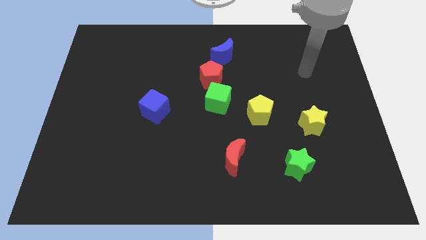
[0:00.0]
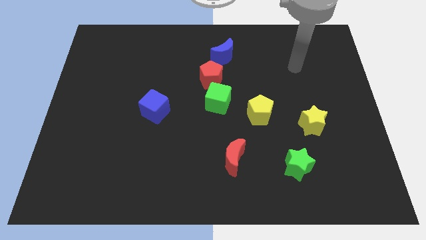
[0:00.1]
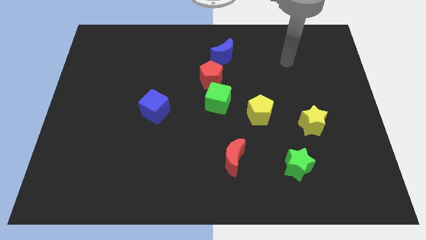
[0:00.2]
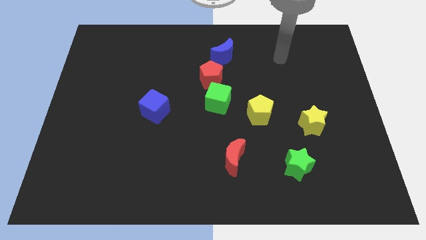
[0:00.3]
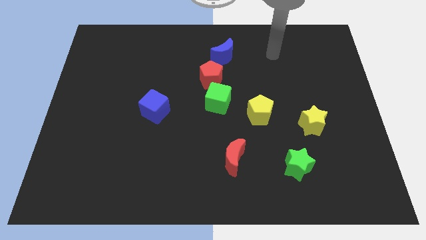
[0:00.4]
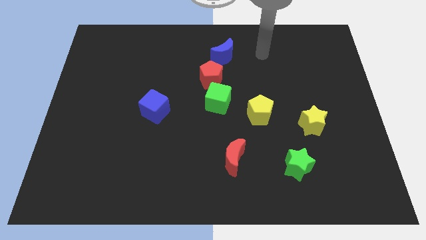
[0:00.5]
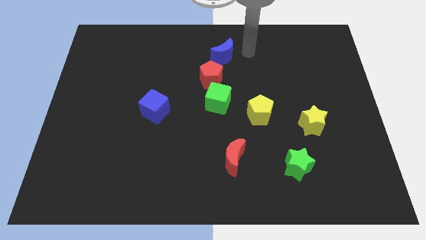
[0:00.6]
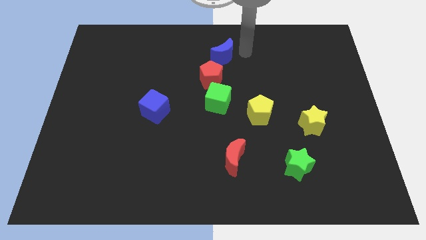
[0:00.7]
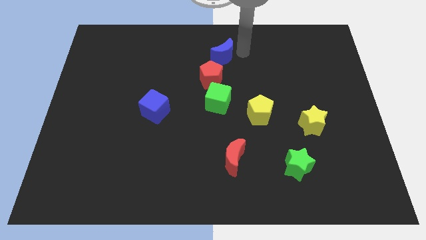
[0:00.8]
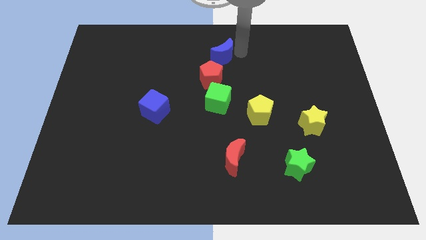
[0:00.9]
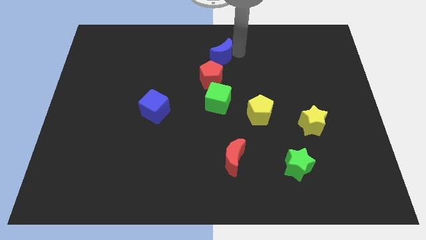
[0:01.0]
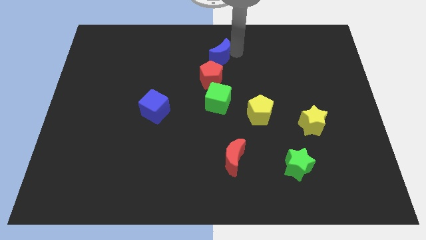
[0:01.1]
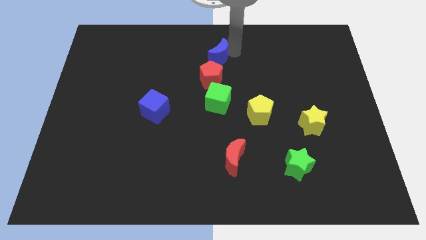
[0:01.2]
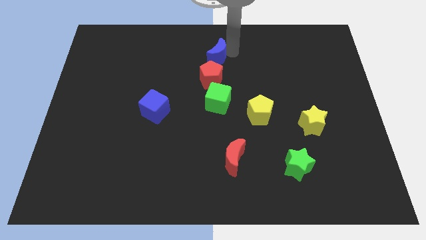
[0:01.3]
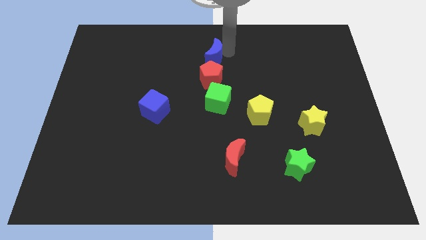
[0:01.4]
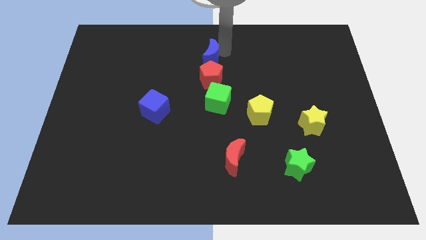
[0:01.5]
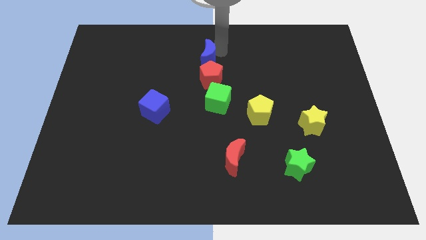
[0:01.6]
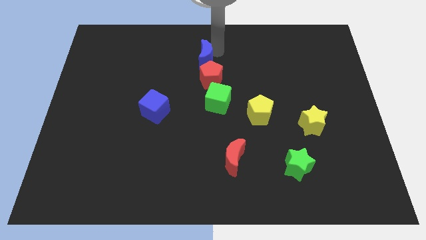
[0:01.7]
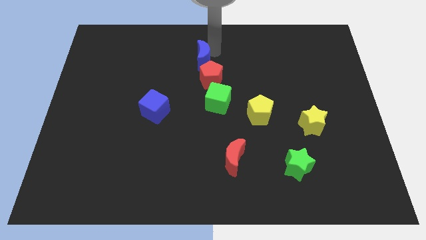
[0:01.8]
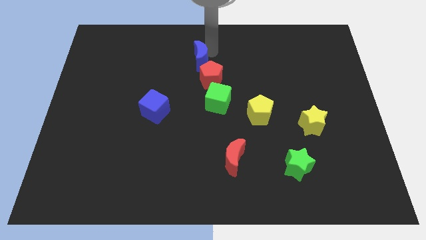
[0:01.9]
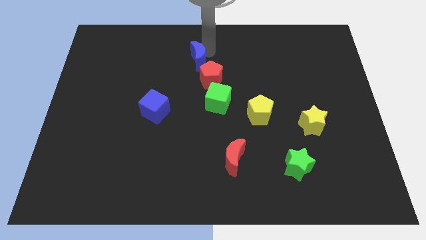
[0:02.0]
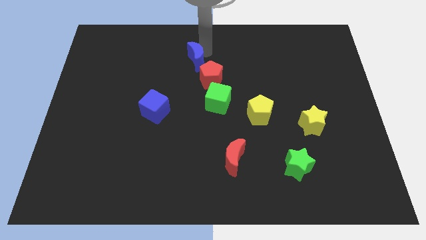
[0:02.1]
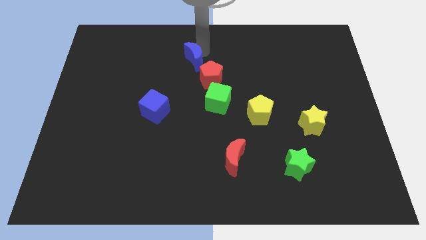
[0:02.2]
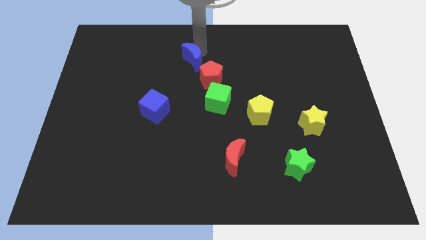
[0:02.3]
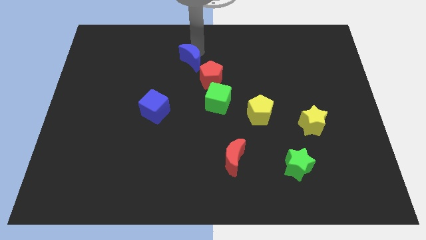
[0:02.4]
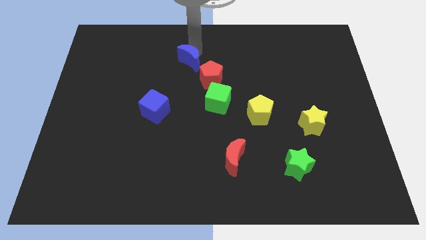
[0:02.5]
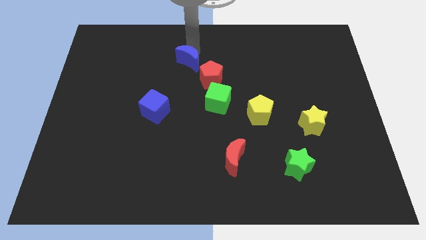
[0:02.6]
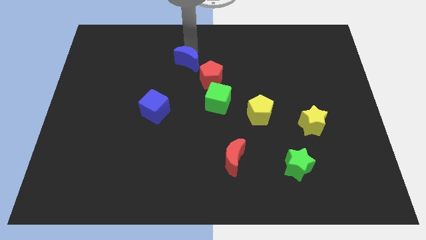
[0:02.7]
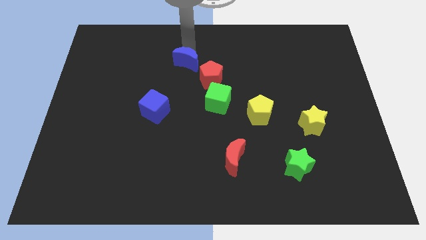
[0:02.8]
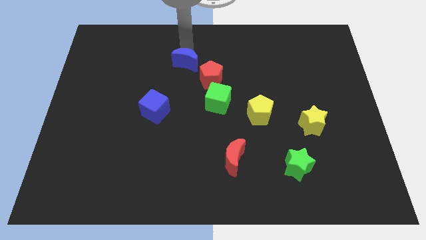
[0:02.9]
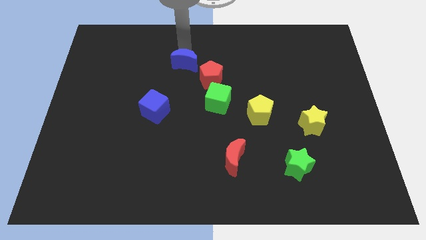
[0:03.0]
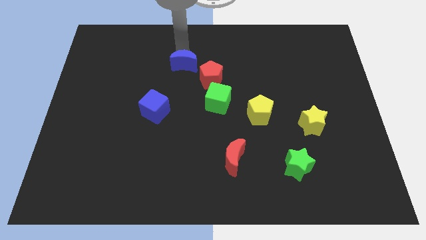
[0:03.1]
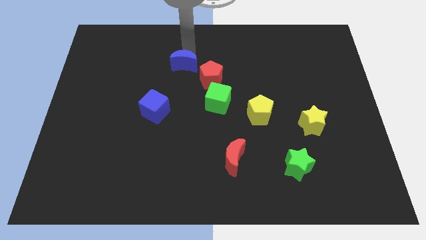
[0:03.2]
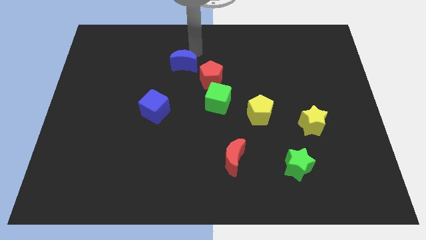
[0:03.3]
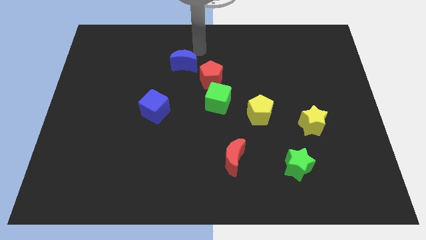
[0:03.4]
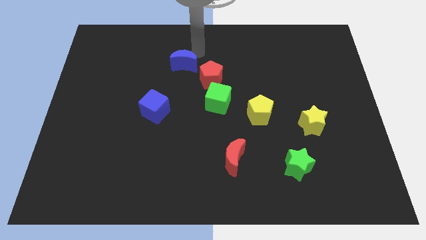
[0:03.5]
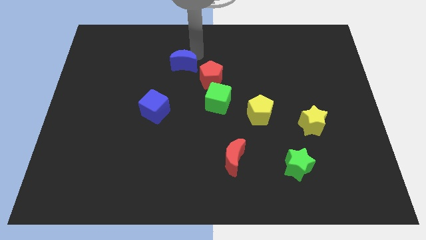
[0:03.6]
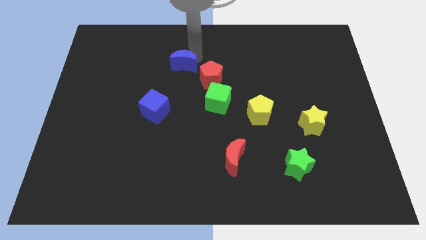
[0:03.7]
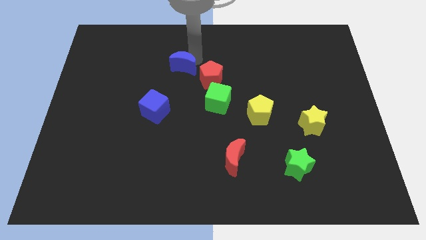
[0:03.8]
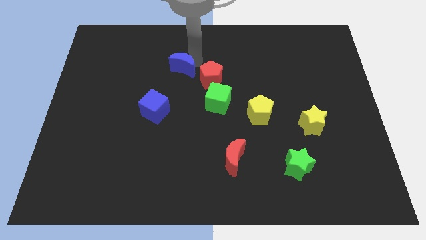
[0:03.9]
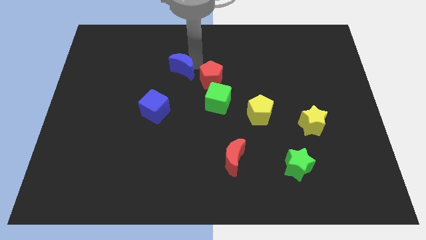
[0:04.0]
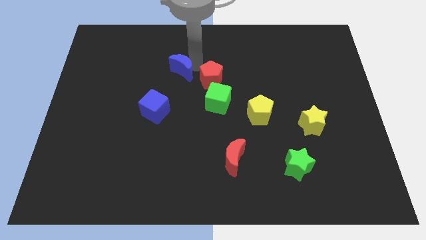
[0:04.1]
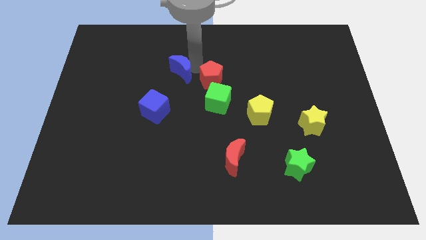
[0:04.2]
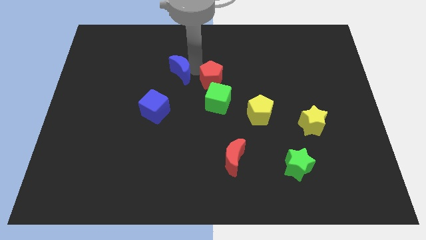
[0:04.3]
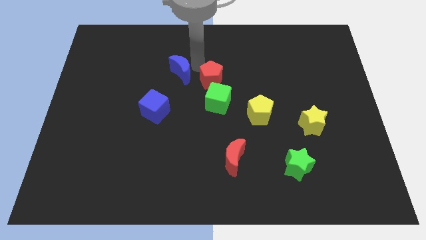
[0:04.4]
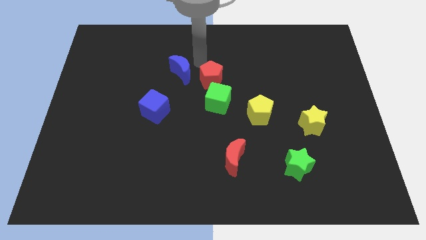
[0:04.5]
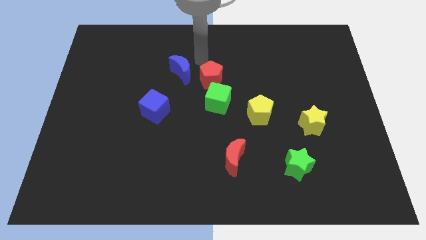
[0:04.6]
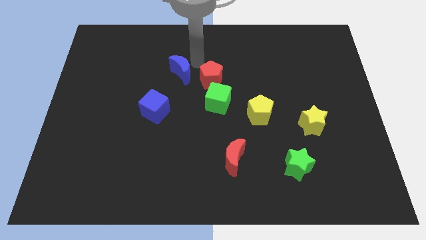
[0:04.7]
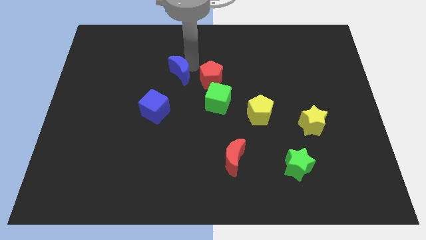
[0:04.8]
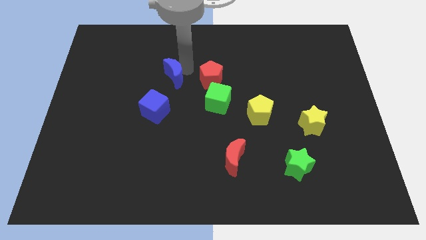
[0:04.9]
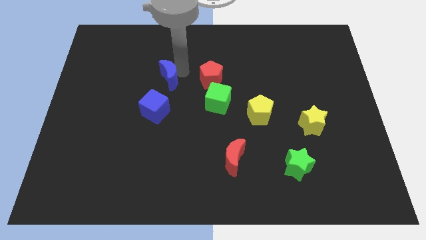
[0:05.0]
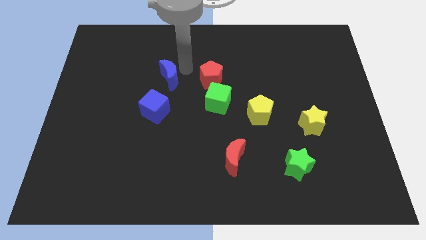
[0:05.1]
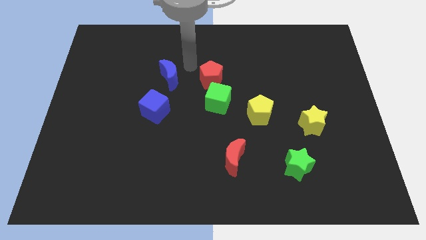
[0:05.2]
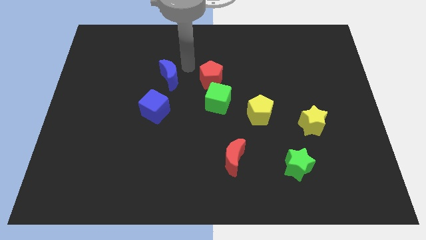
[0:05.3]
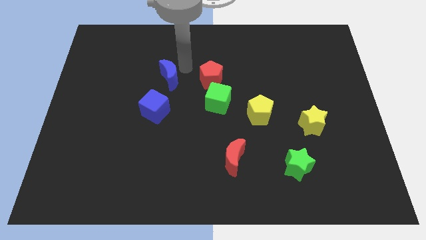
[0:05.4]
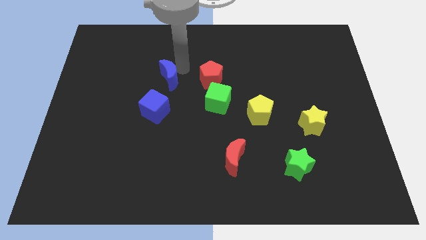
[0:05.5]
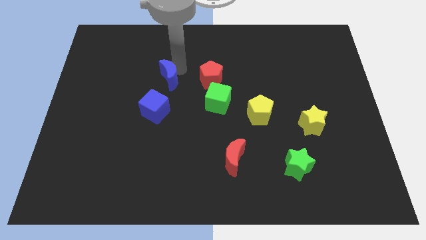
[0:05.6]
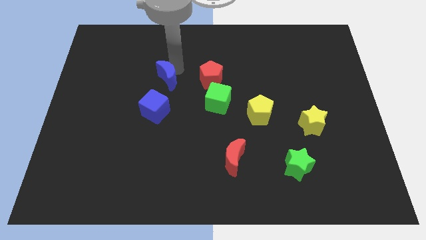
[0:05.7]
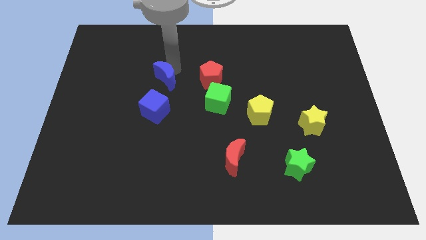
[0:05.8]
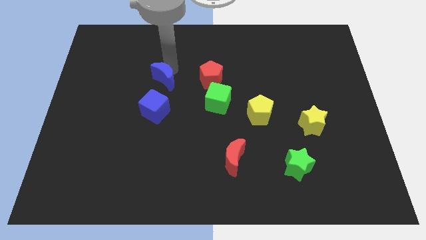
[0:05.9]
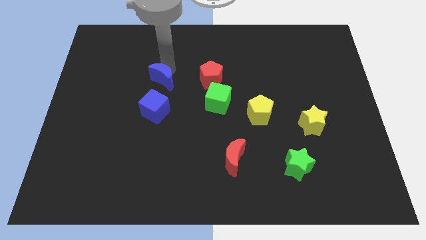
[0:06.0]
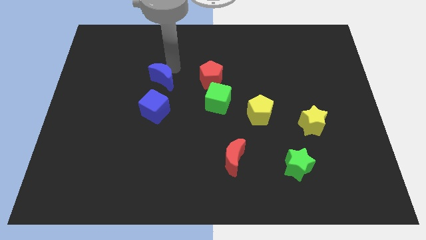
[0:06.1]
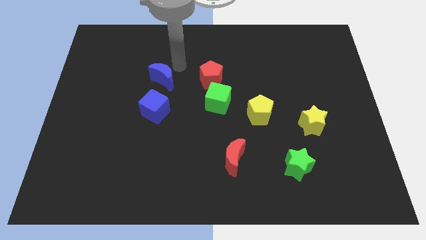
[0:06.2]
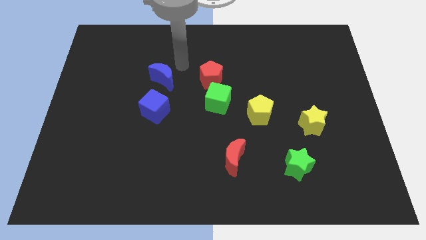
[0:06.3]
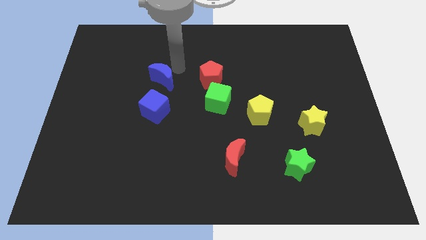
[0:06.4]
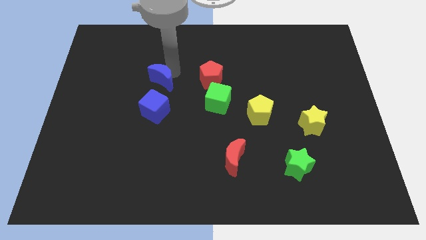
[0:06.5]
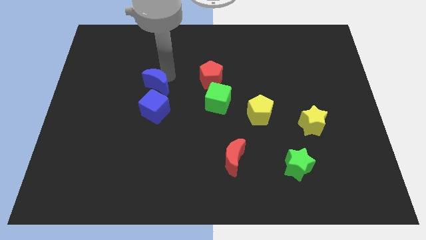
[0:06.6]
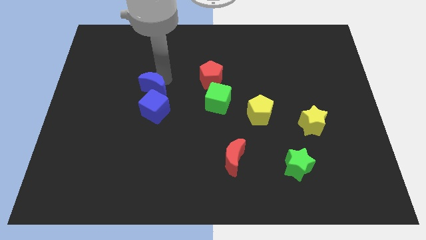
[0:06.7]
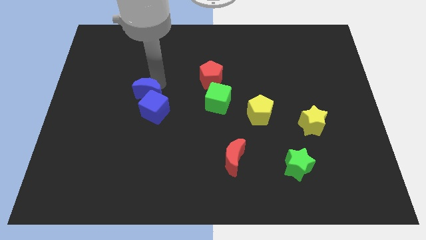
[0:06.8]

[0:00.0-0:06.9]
slide the blue moon diagonally down and left

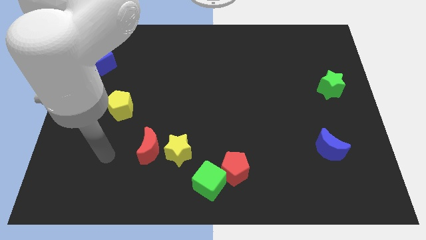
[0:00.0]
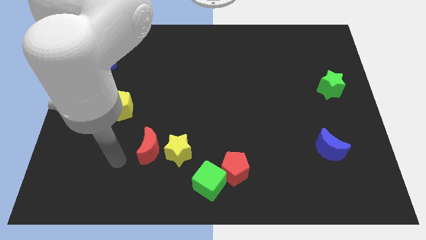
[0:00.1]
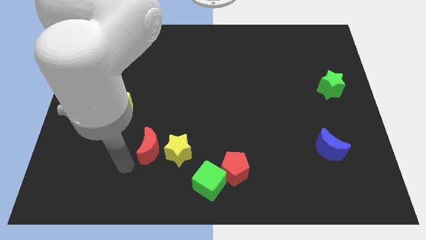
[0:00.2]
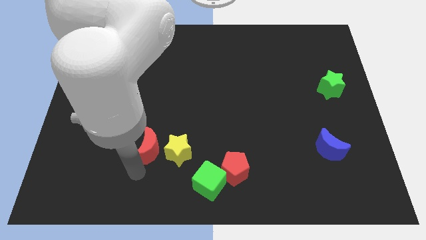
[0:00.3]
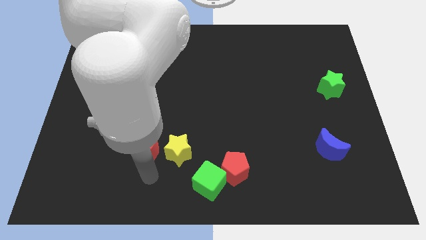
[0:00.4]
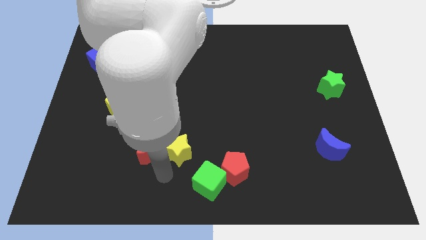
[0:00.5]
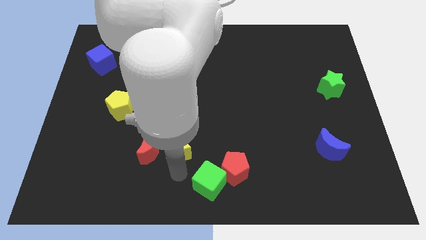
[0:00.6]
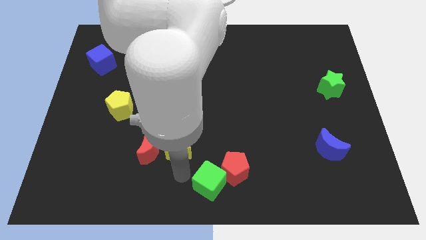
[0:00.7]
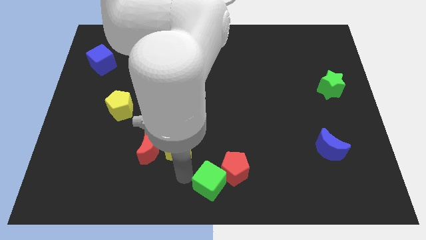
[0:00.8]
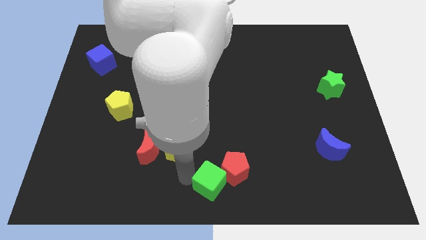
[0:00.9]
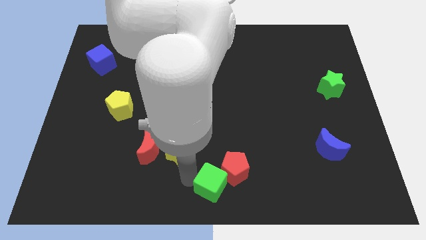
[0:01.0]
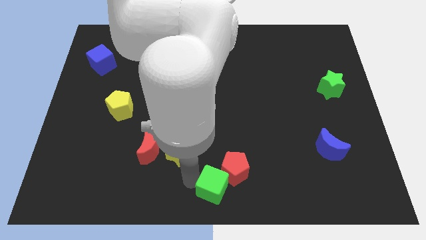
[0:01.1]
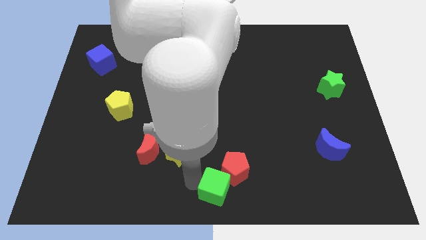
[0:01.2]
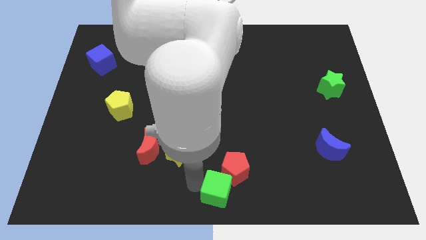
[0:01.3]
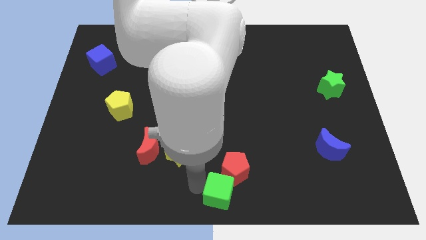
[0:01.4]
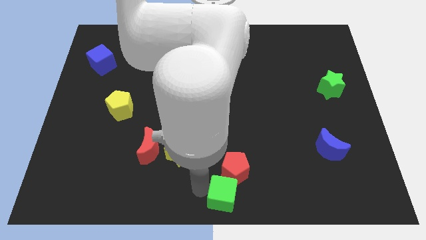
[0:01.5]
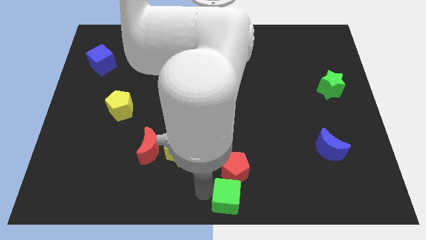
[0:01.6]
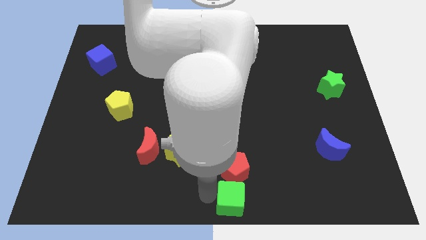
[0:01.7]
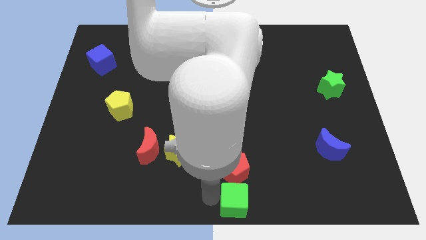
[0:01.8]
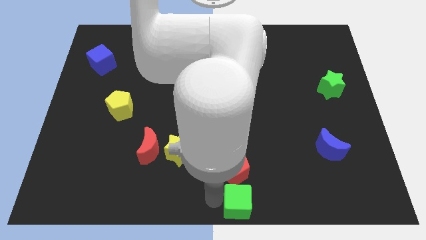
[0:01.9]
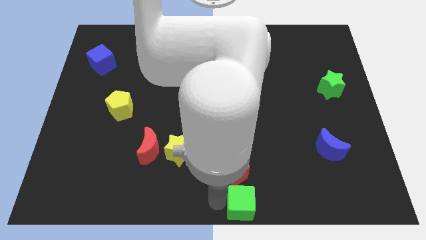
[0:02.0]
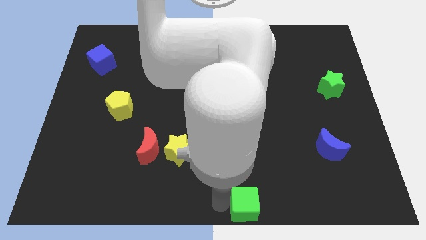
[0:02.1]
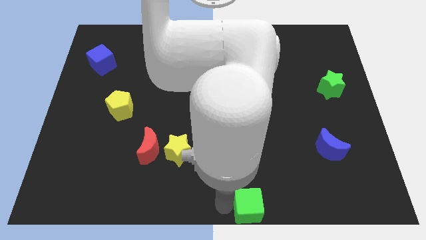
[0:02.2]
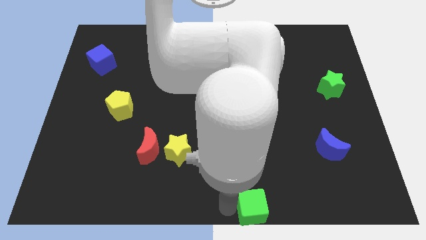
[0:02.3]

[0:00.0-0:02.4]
push the green cube somewhat to the right
